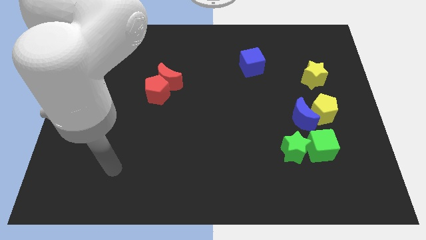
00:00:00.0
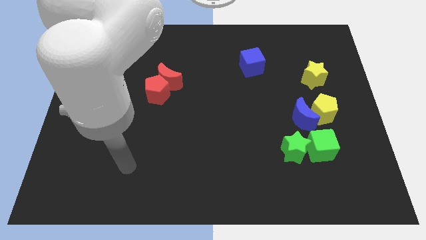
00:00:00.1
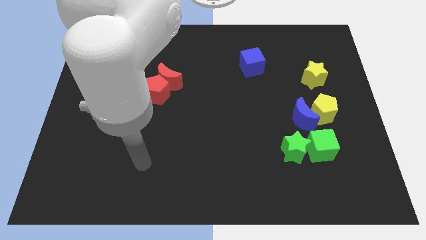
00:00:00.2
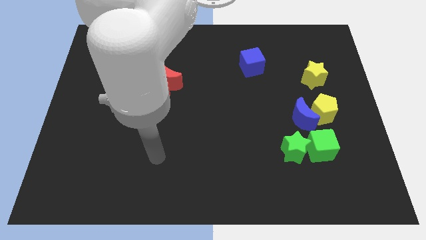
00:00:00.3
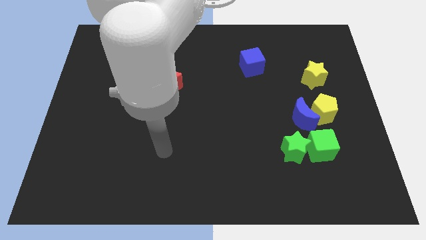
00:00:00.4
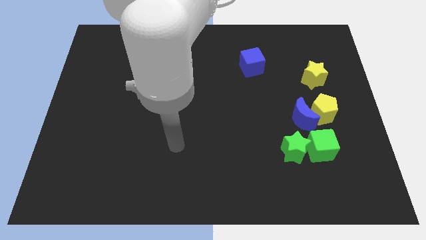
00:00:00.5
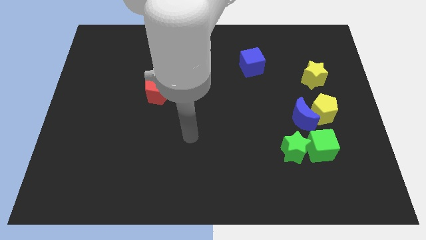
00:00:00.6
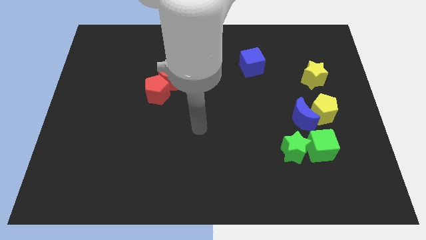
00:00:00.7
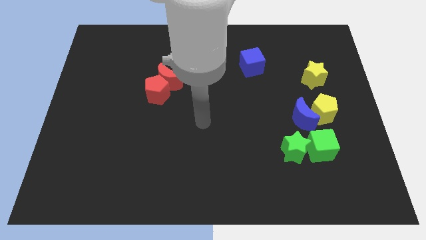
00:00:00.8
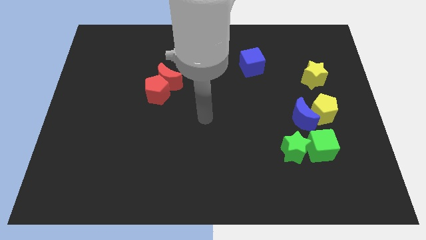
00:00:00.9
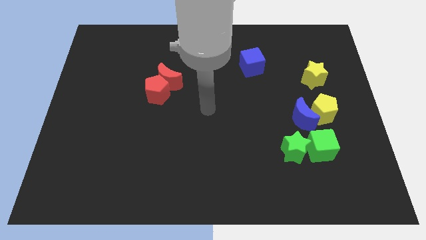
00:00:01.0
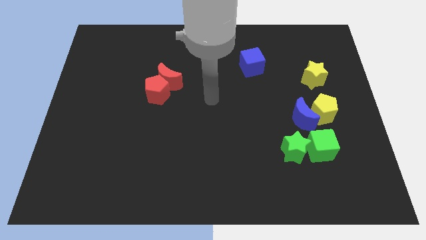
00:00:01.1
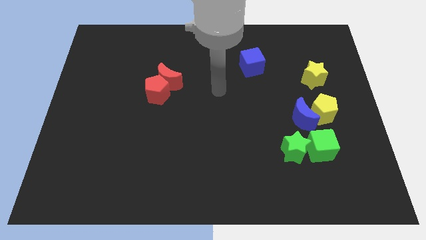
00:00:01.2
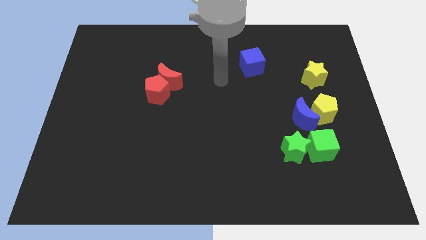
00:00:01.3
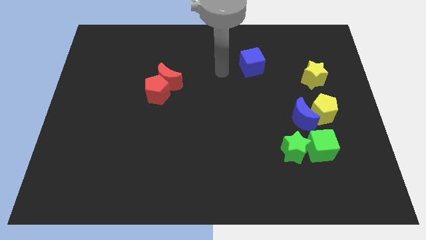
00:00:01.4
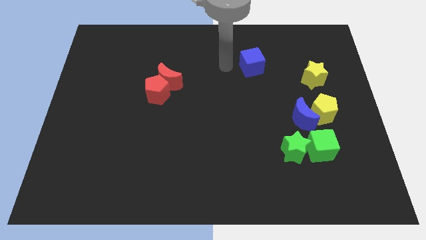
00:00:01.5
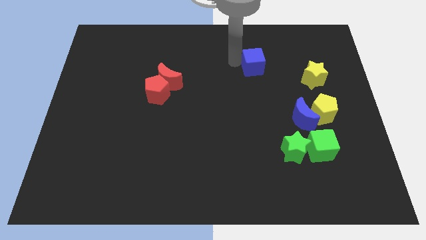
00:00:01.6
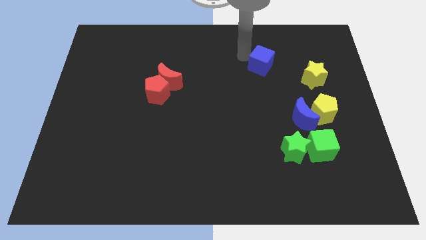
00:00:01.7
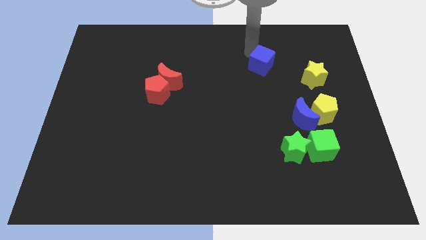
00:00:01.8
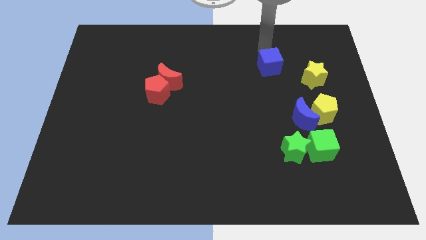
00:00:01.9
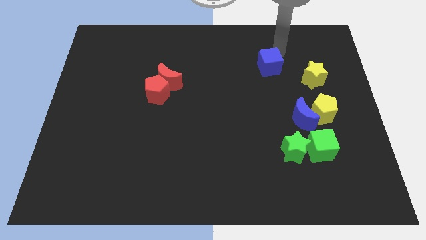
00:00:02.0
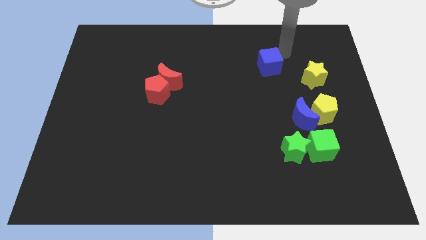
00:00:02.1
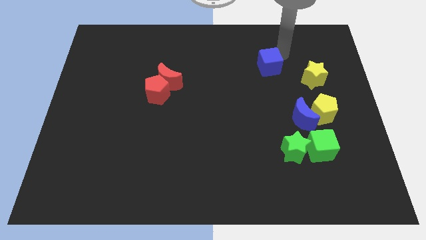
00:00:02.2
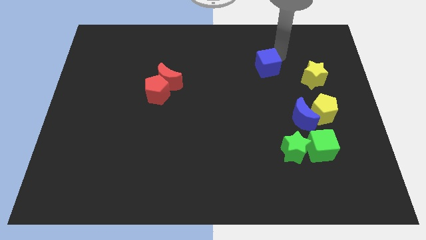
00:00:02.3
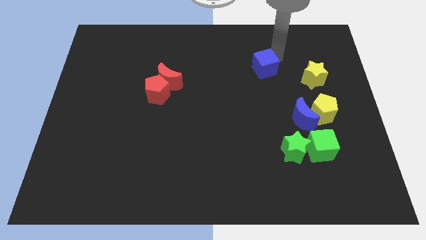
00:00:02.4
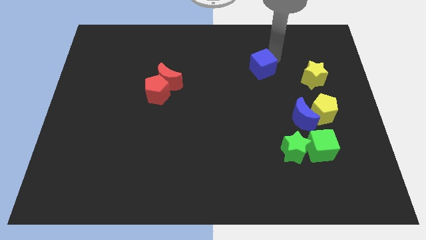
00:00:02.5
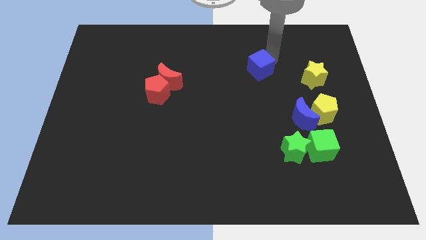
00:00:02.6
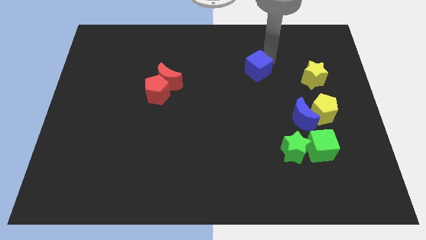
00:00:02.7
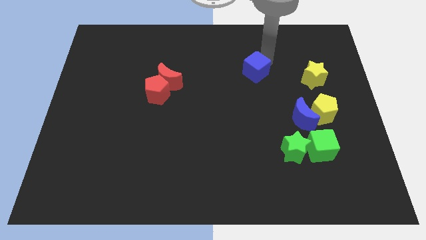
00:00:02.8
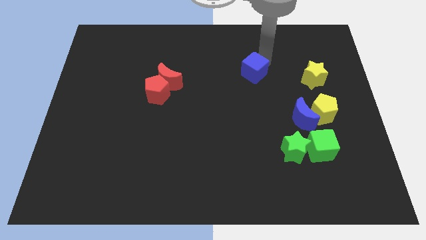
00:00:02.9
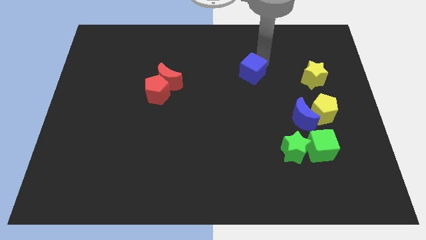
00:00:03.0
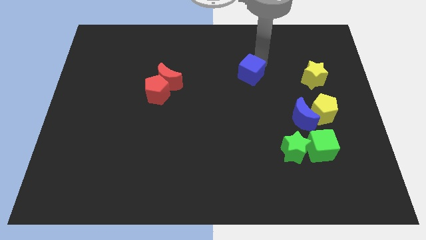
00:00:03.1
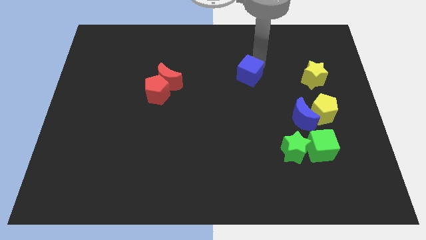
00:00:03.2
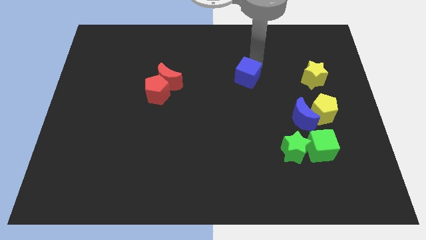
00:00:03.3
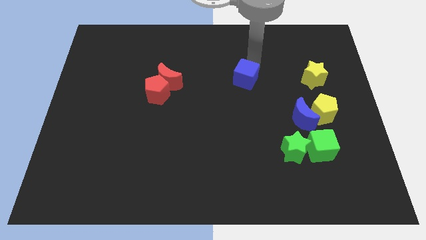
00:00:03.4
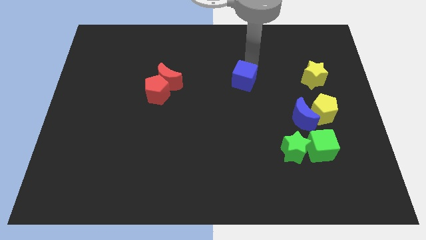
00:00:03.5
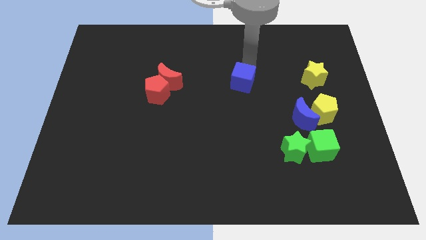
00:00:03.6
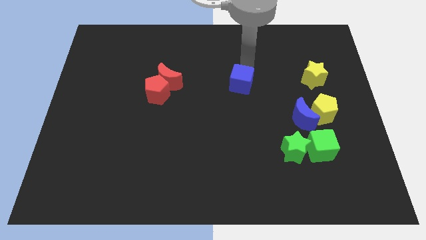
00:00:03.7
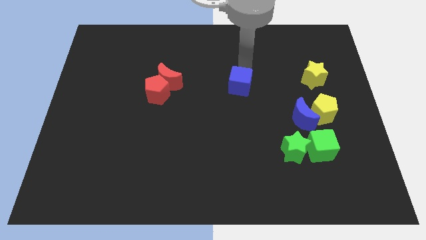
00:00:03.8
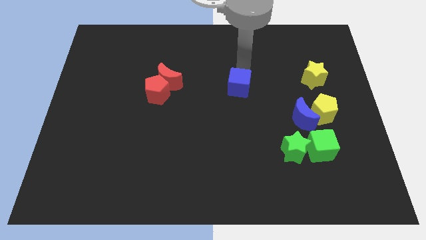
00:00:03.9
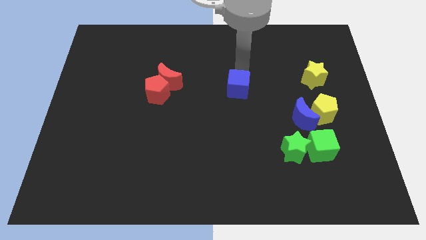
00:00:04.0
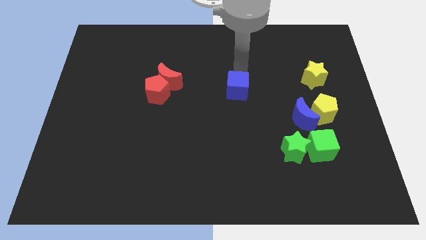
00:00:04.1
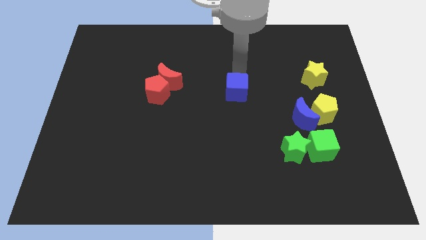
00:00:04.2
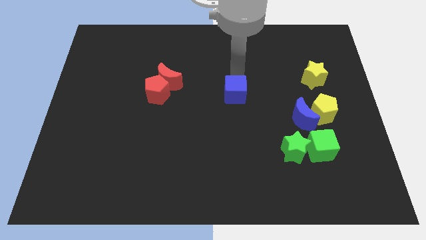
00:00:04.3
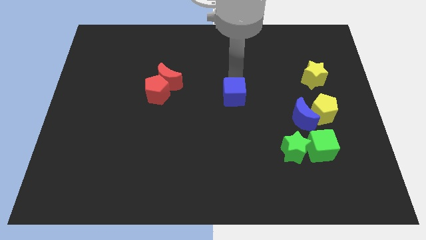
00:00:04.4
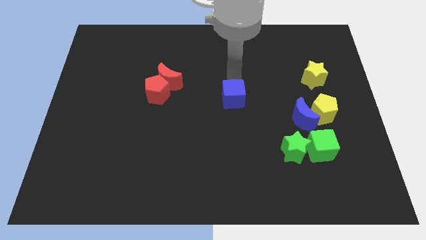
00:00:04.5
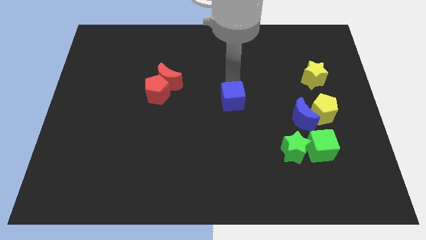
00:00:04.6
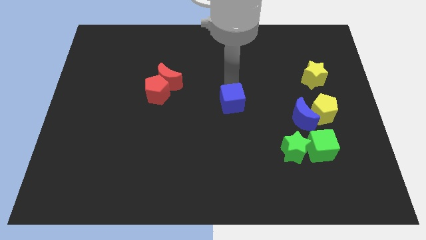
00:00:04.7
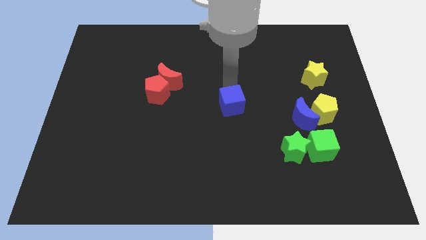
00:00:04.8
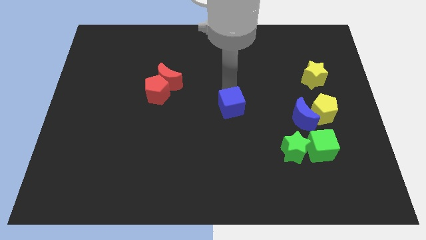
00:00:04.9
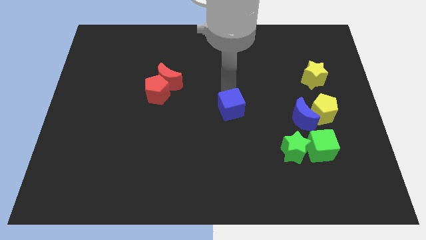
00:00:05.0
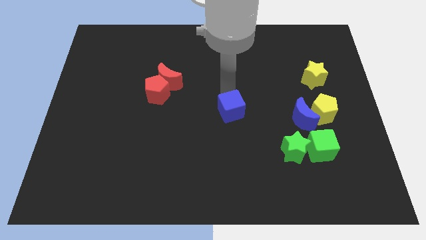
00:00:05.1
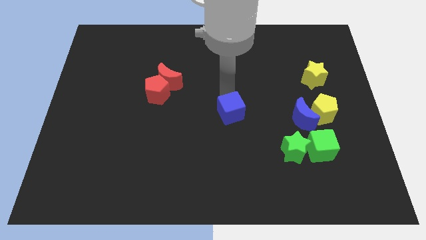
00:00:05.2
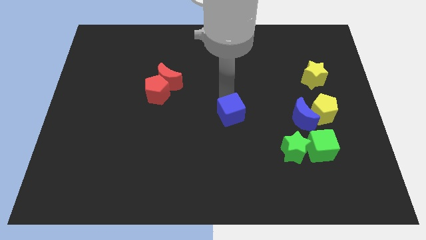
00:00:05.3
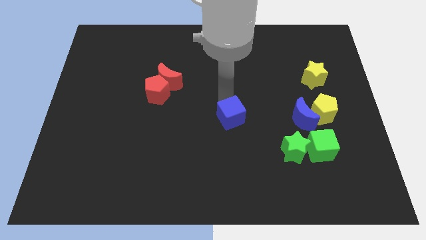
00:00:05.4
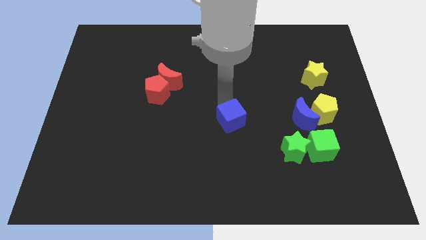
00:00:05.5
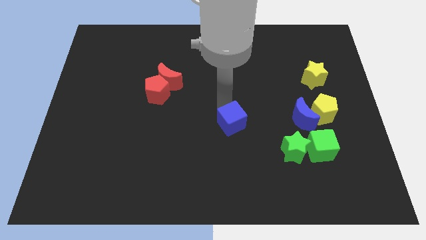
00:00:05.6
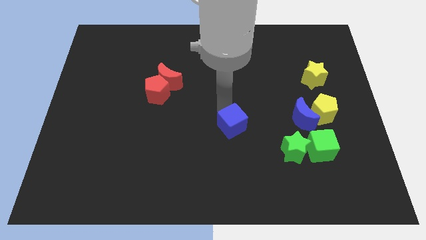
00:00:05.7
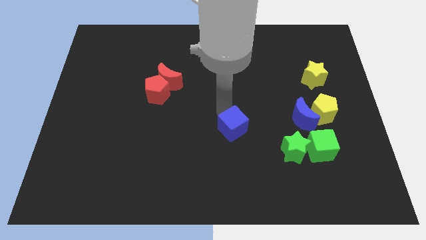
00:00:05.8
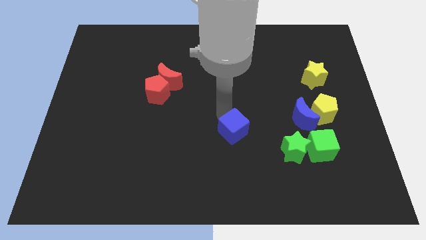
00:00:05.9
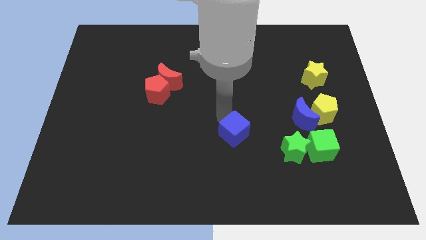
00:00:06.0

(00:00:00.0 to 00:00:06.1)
slide the blue cube down

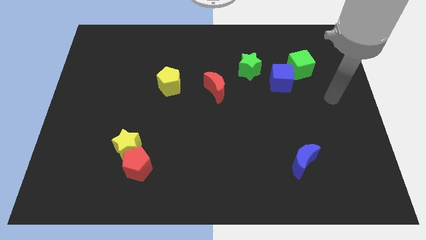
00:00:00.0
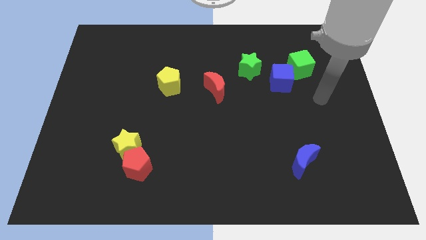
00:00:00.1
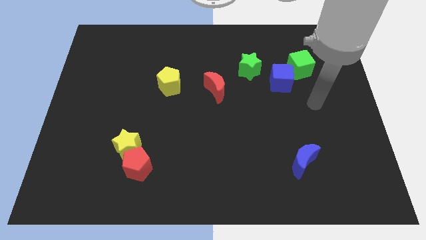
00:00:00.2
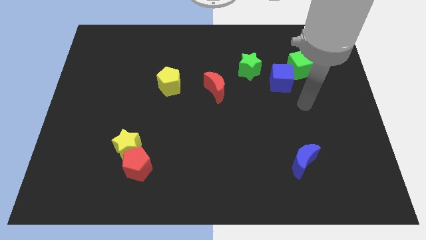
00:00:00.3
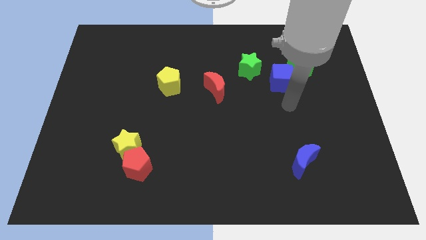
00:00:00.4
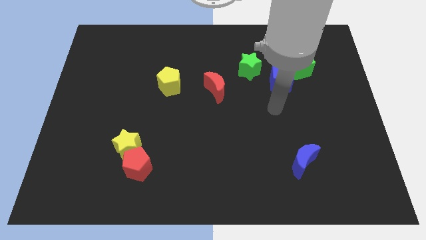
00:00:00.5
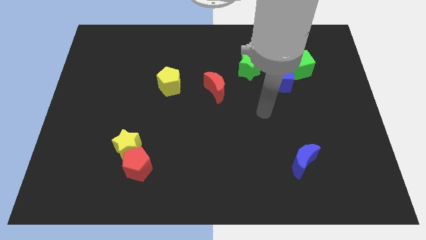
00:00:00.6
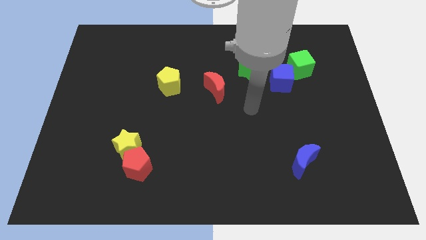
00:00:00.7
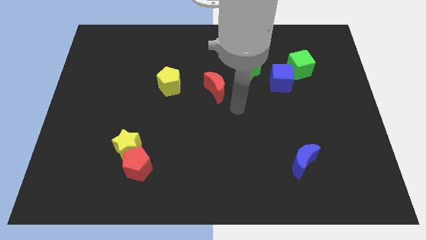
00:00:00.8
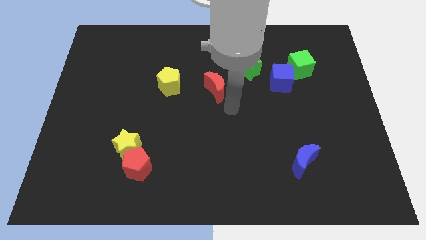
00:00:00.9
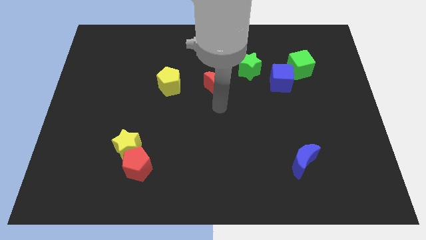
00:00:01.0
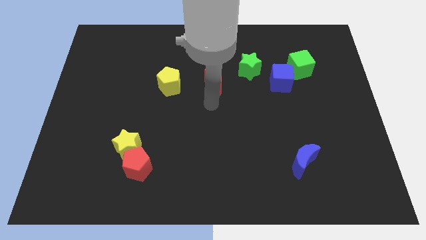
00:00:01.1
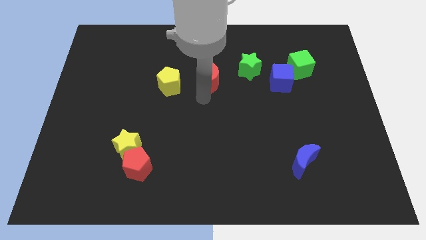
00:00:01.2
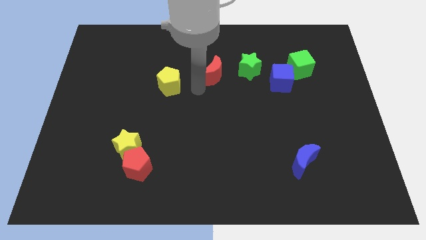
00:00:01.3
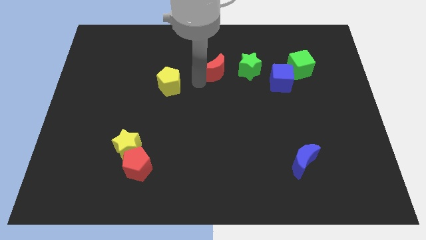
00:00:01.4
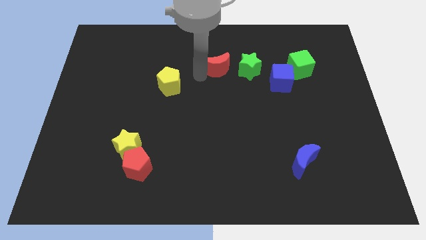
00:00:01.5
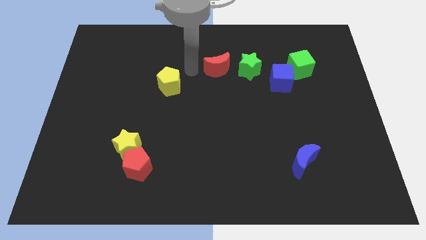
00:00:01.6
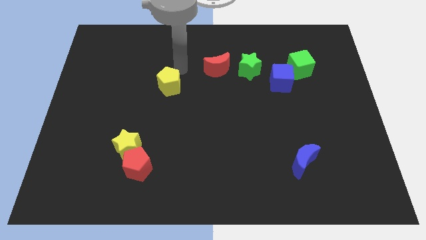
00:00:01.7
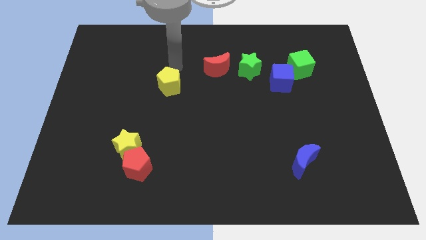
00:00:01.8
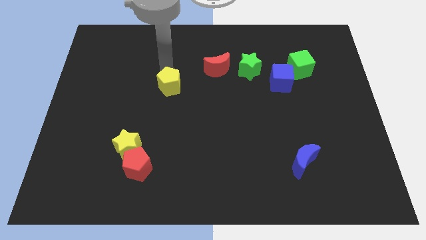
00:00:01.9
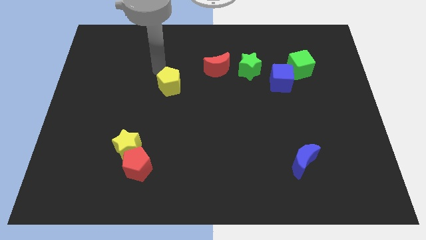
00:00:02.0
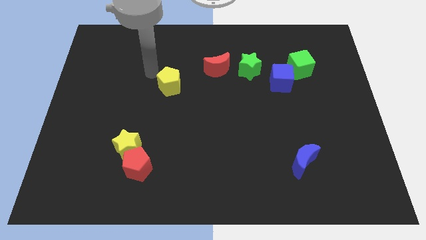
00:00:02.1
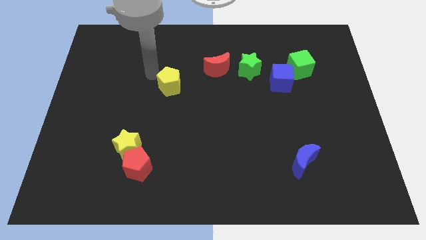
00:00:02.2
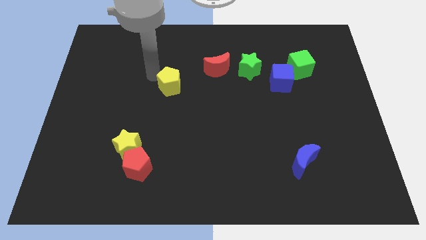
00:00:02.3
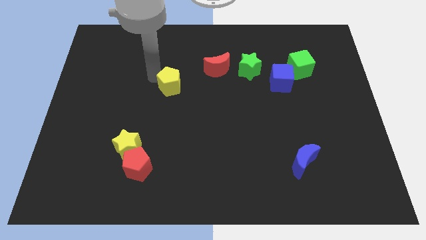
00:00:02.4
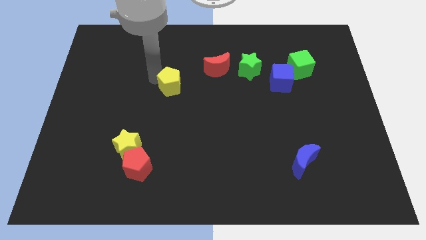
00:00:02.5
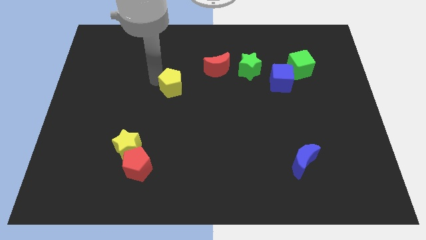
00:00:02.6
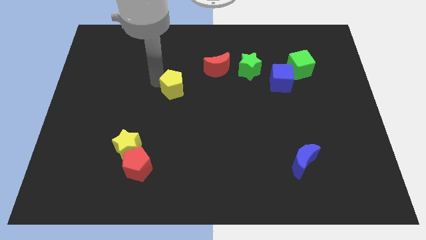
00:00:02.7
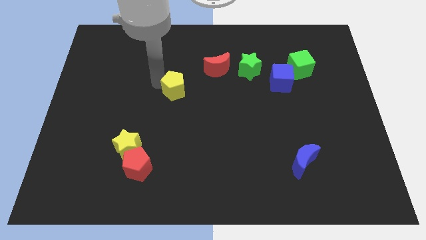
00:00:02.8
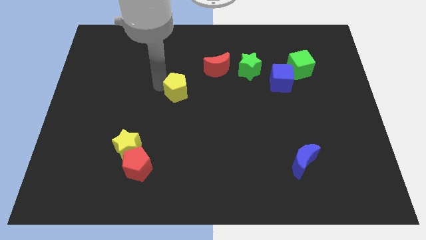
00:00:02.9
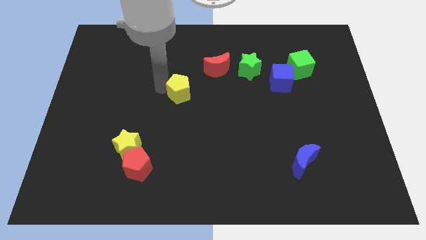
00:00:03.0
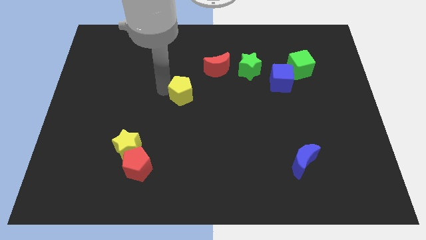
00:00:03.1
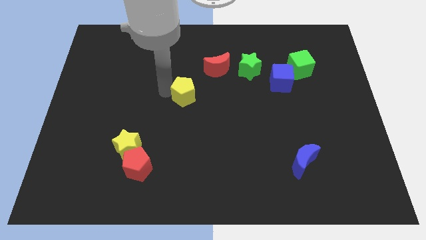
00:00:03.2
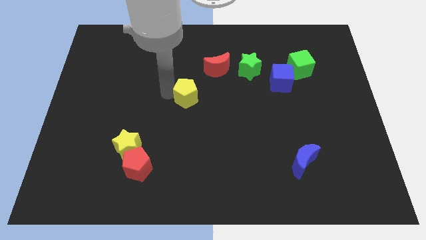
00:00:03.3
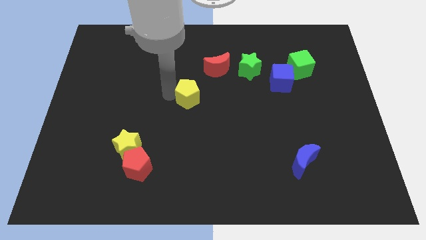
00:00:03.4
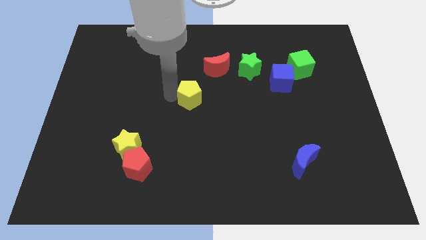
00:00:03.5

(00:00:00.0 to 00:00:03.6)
slide the yellow pentagon a little bit downwards and right diagonally
